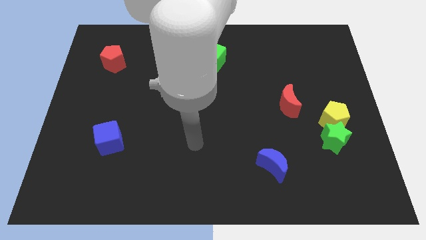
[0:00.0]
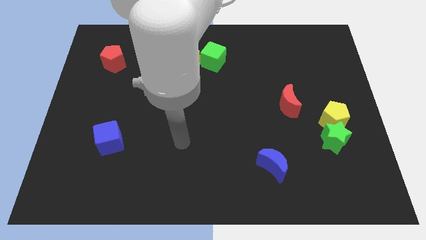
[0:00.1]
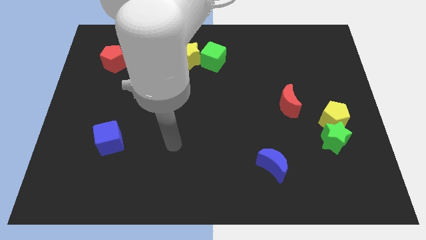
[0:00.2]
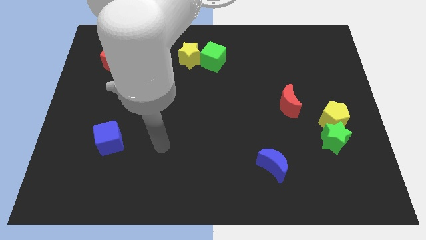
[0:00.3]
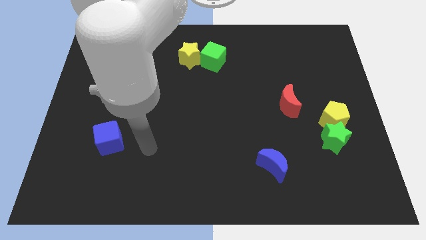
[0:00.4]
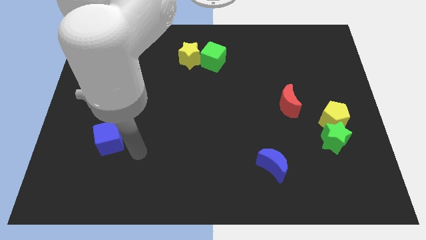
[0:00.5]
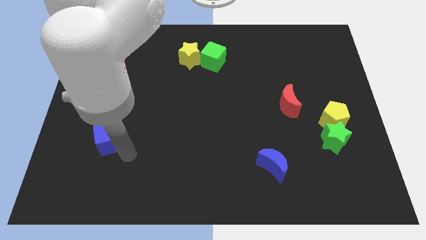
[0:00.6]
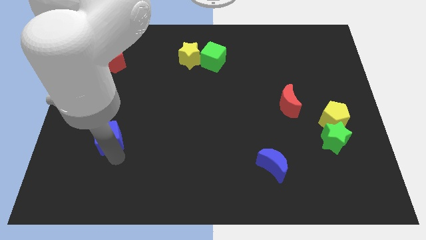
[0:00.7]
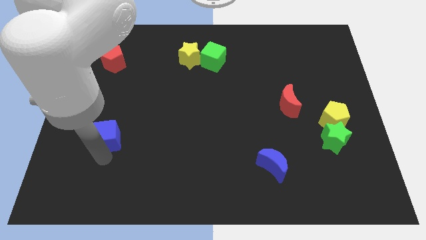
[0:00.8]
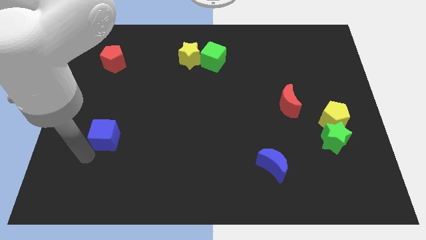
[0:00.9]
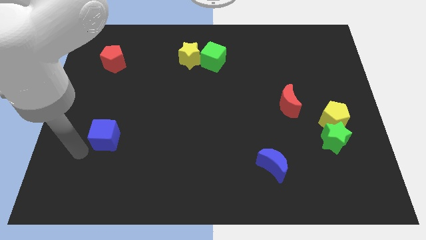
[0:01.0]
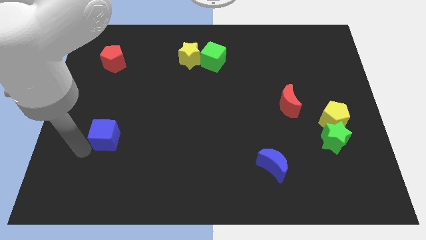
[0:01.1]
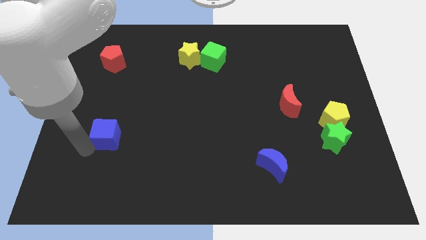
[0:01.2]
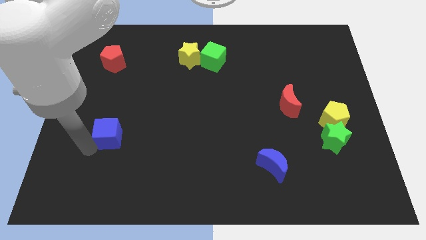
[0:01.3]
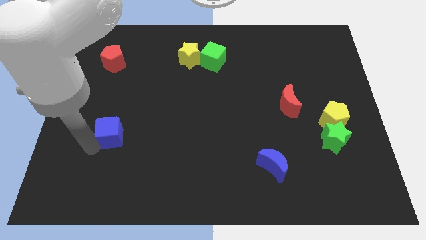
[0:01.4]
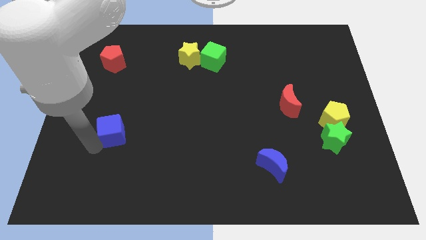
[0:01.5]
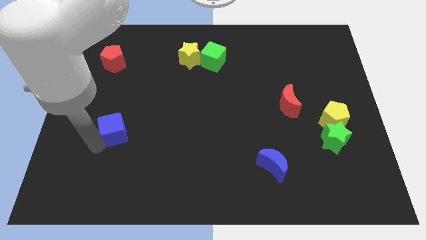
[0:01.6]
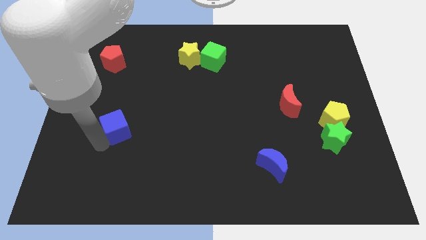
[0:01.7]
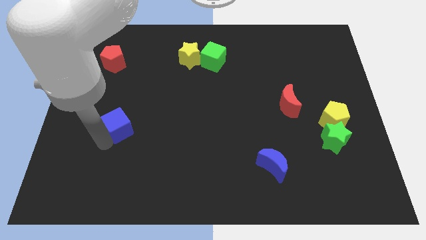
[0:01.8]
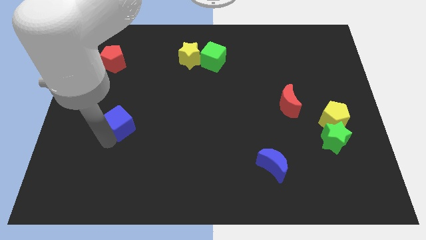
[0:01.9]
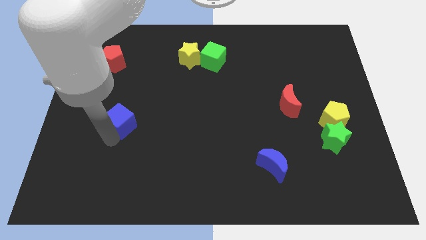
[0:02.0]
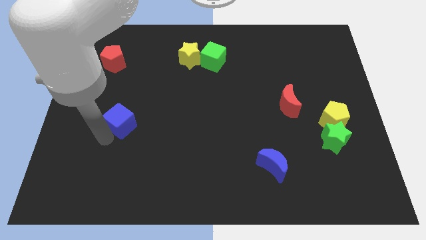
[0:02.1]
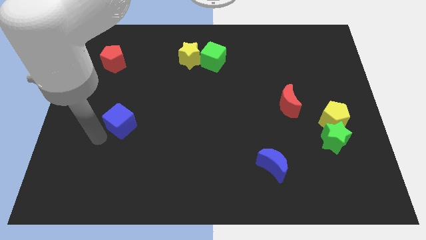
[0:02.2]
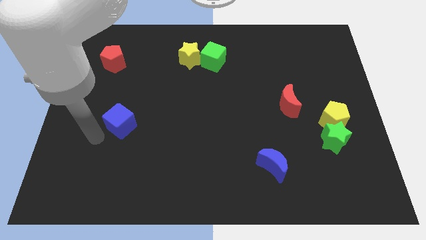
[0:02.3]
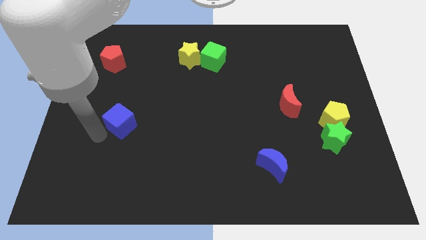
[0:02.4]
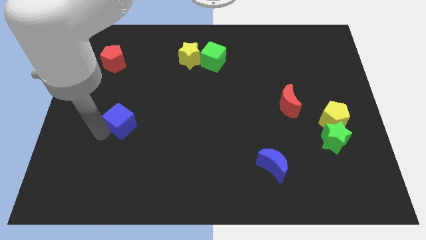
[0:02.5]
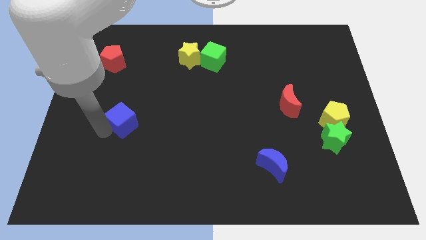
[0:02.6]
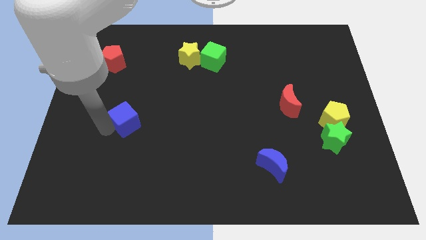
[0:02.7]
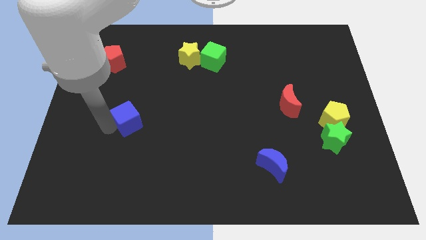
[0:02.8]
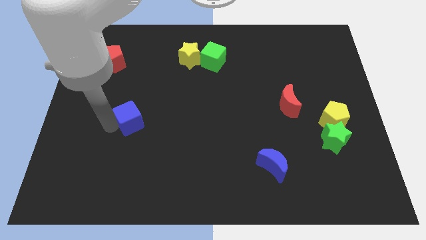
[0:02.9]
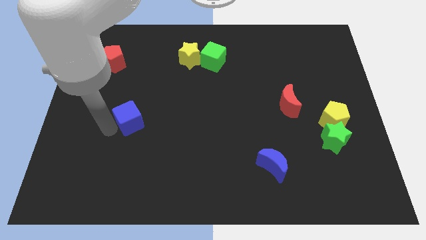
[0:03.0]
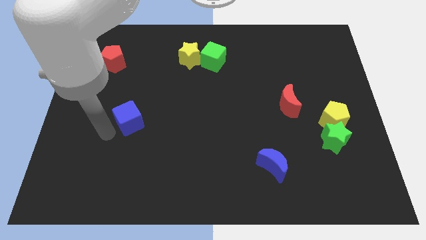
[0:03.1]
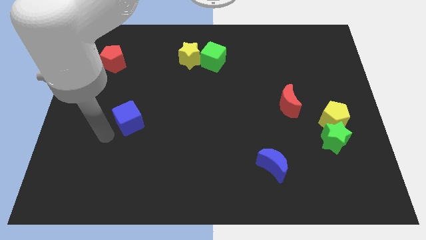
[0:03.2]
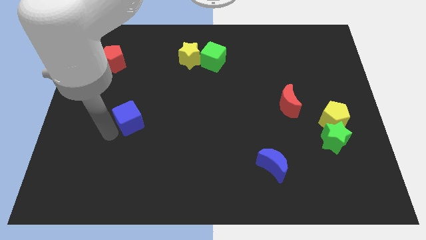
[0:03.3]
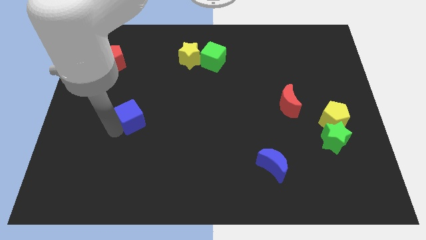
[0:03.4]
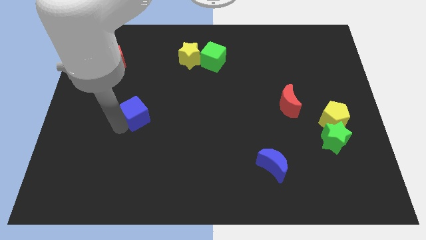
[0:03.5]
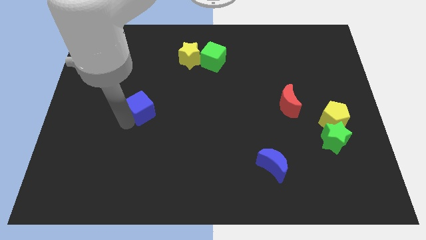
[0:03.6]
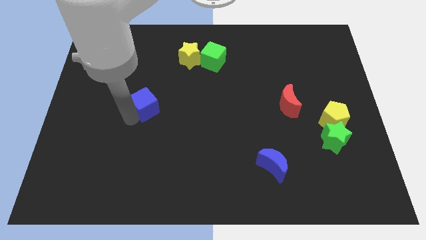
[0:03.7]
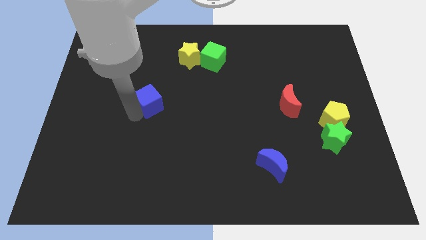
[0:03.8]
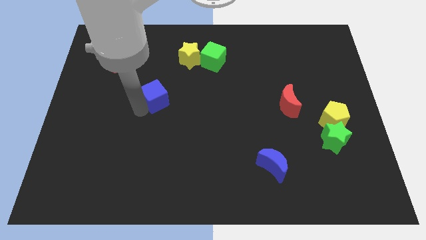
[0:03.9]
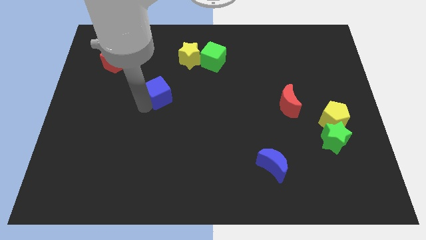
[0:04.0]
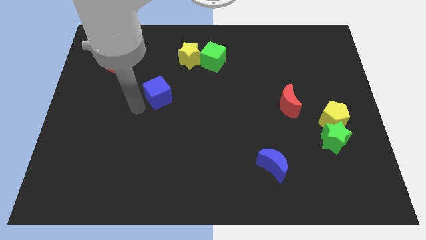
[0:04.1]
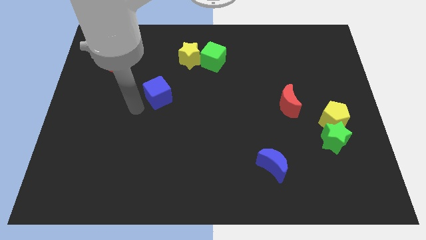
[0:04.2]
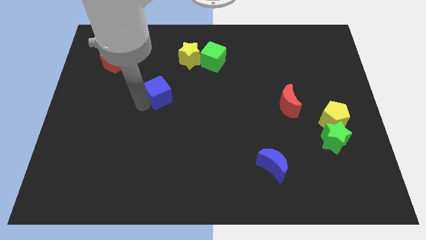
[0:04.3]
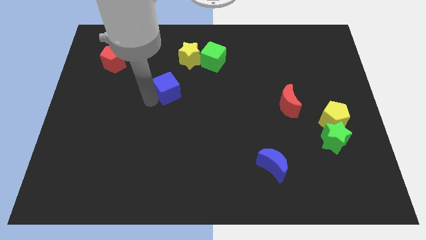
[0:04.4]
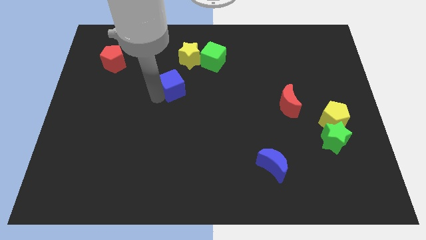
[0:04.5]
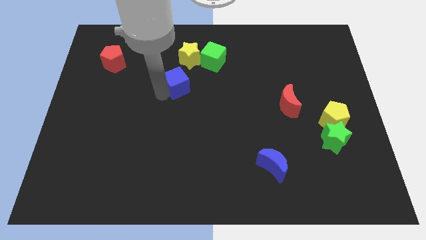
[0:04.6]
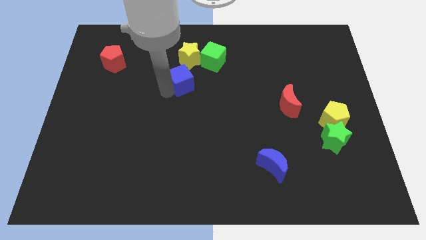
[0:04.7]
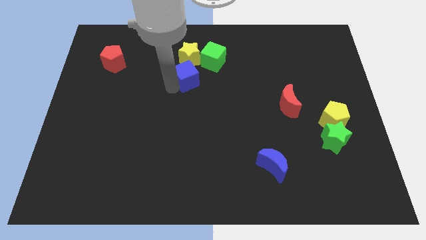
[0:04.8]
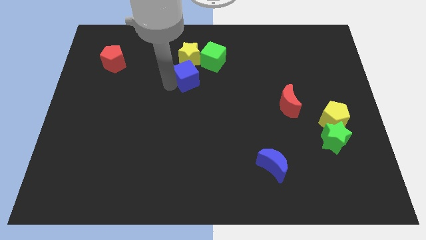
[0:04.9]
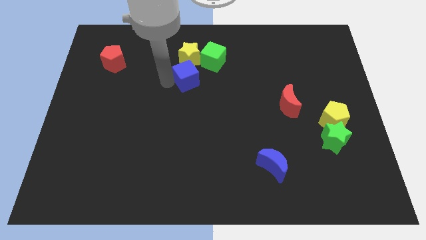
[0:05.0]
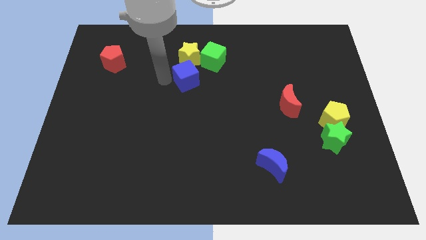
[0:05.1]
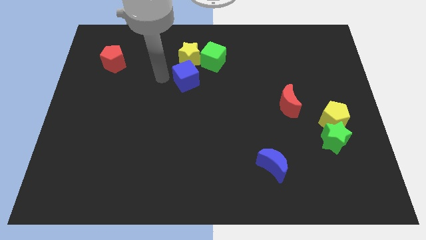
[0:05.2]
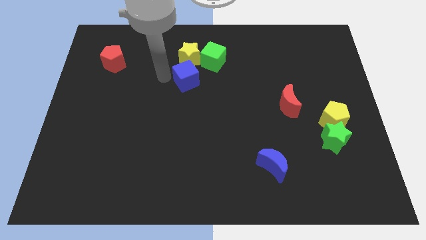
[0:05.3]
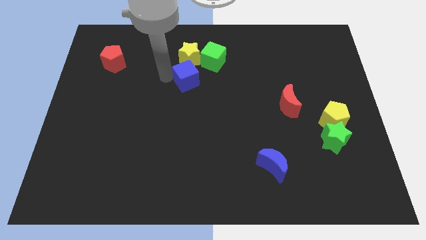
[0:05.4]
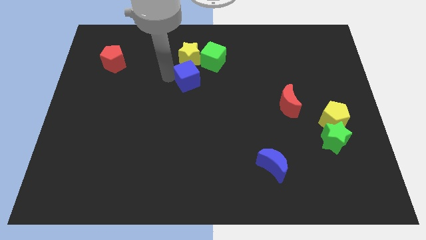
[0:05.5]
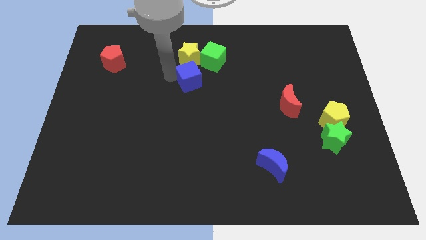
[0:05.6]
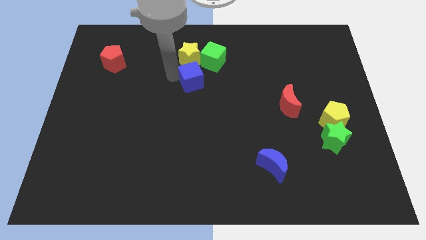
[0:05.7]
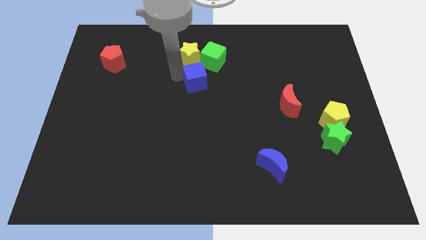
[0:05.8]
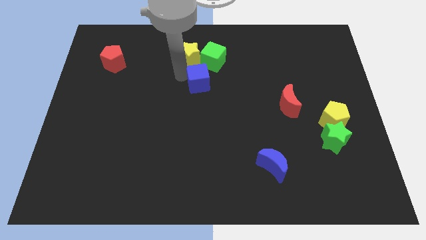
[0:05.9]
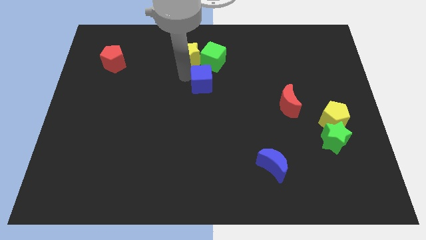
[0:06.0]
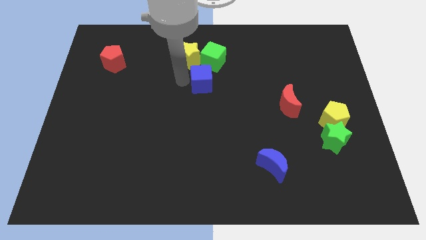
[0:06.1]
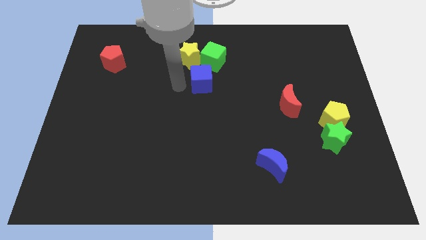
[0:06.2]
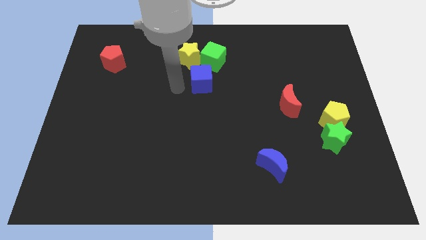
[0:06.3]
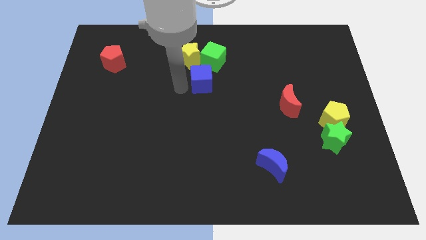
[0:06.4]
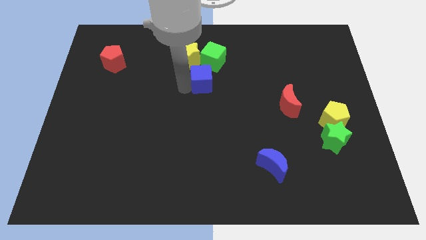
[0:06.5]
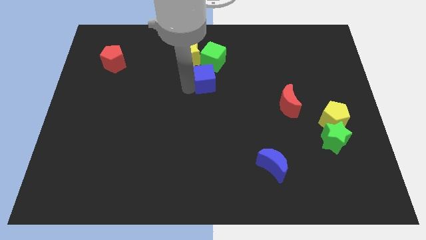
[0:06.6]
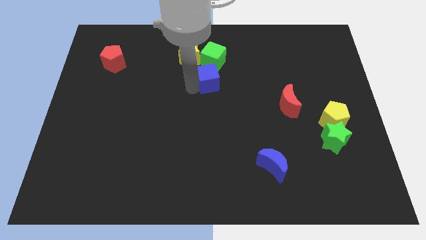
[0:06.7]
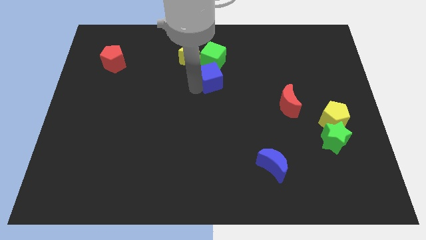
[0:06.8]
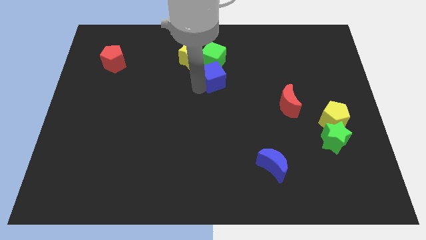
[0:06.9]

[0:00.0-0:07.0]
push the blue cube to the bottom right of the green cube

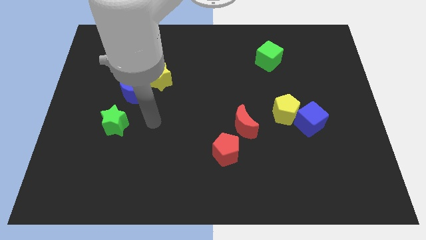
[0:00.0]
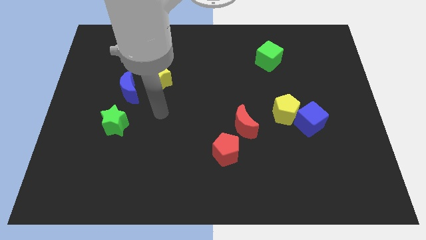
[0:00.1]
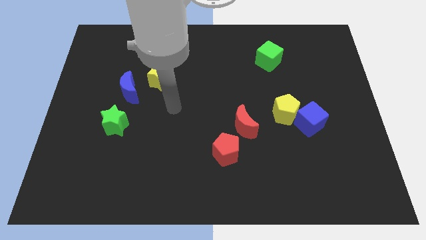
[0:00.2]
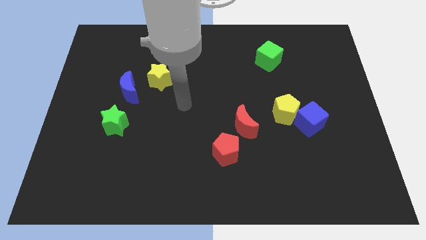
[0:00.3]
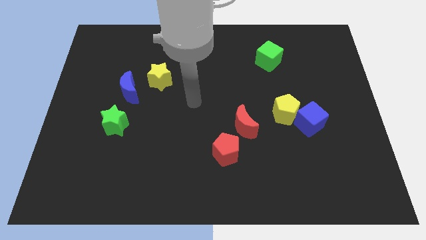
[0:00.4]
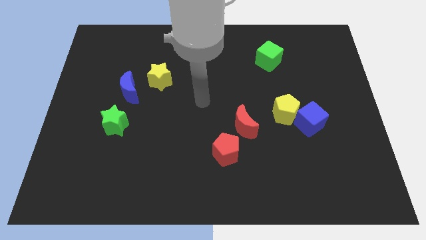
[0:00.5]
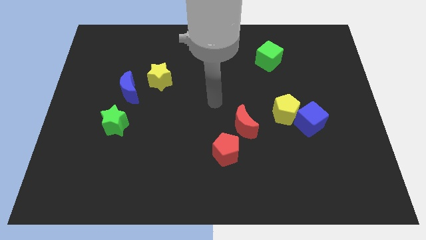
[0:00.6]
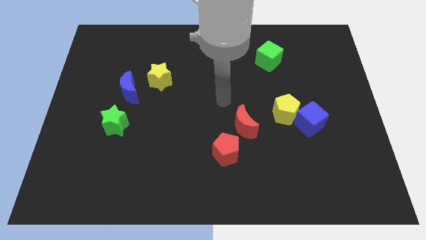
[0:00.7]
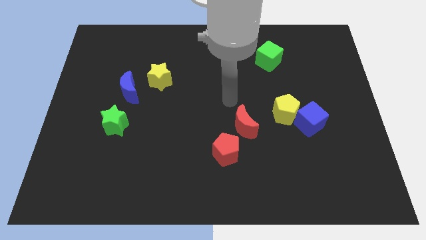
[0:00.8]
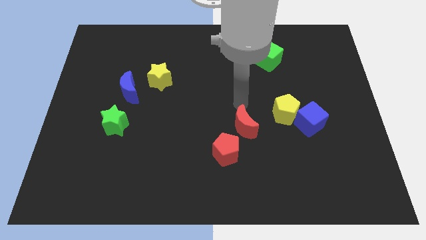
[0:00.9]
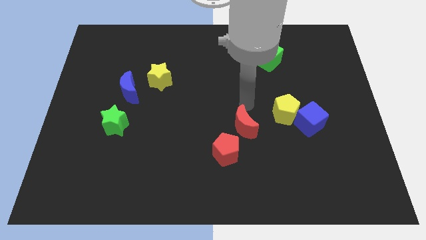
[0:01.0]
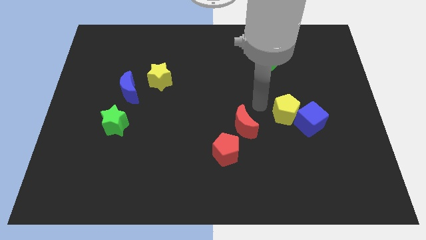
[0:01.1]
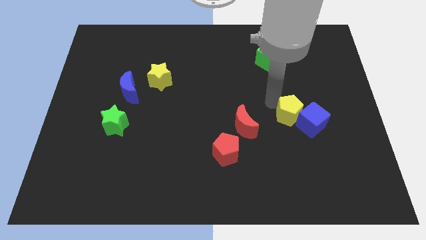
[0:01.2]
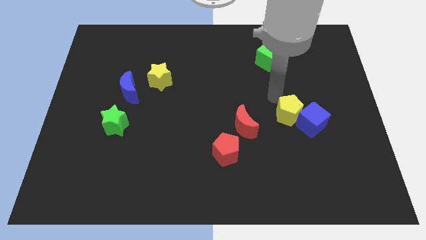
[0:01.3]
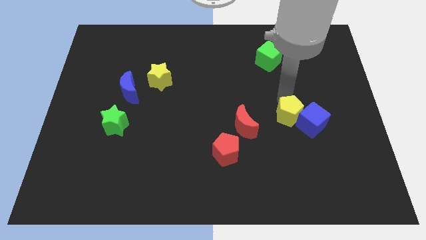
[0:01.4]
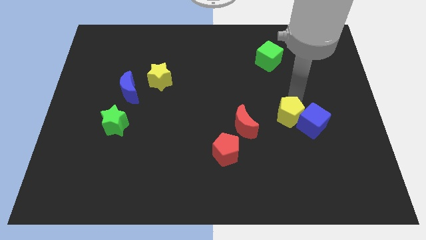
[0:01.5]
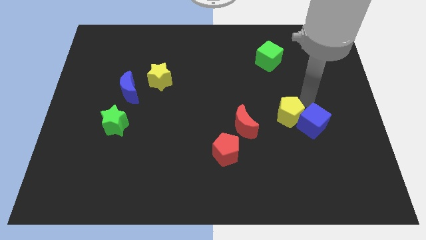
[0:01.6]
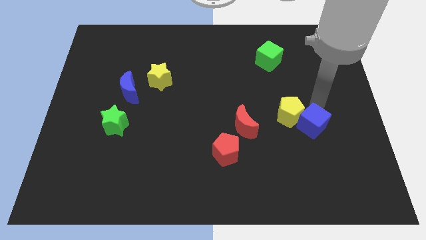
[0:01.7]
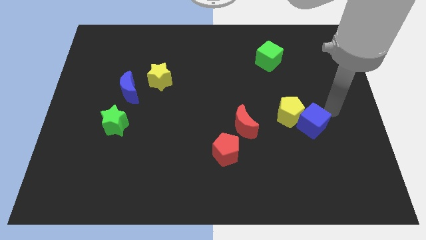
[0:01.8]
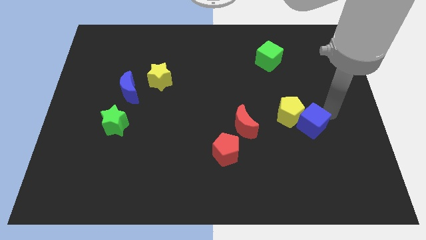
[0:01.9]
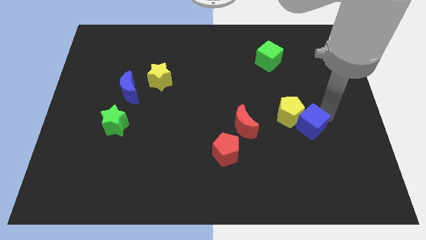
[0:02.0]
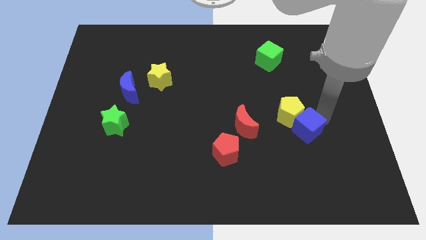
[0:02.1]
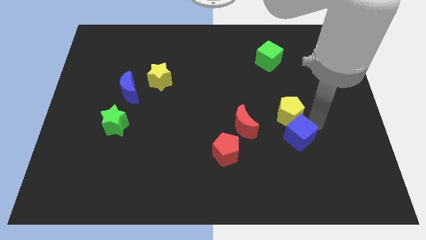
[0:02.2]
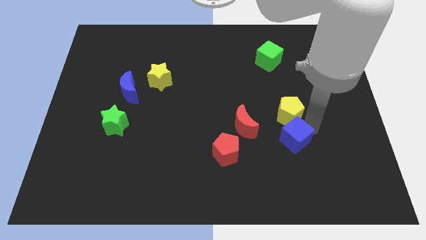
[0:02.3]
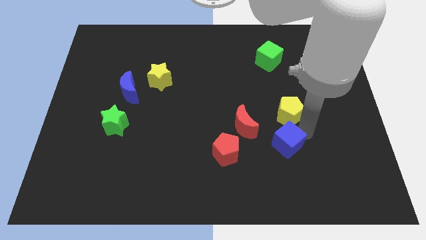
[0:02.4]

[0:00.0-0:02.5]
move the blue cube to the right side of the red pentagon
